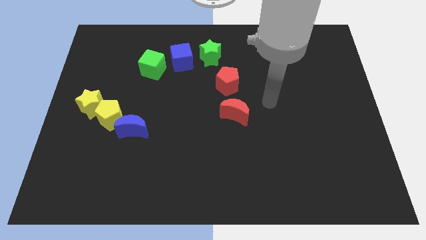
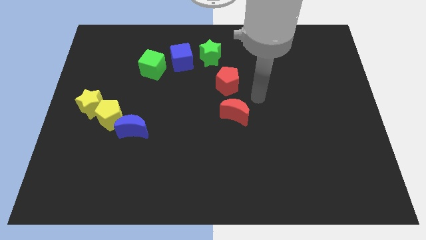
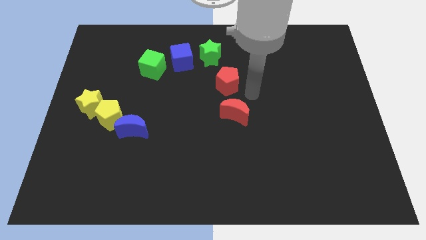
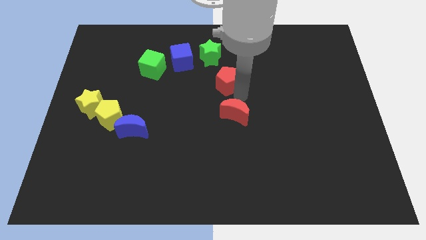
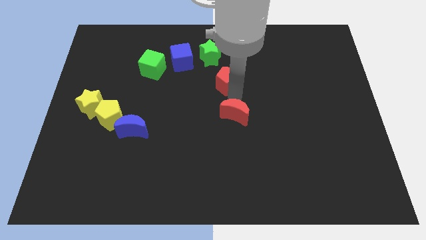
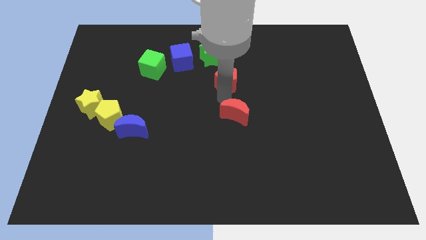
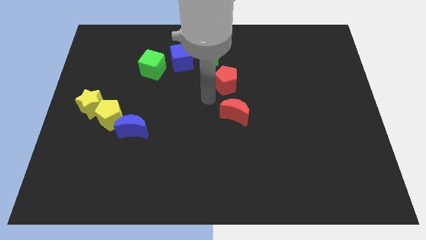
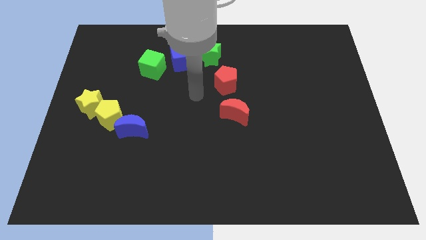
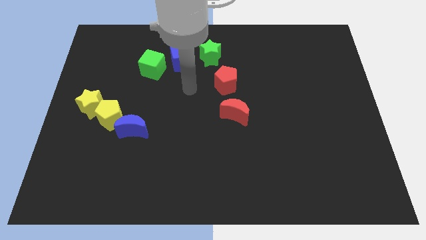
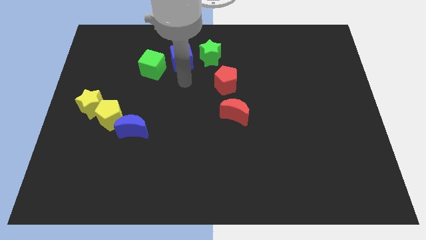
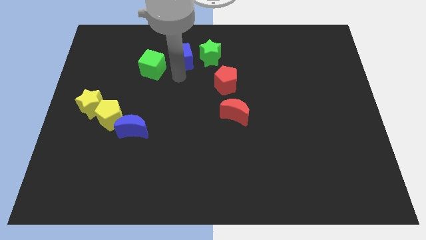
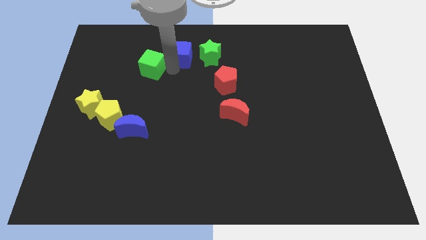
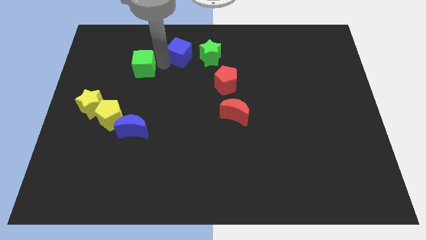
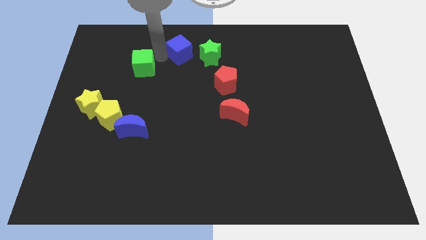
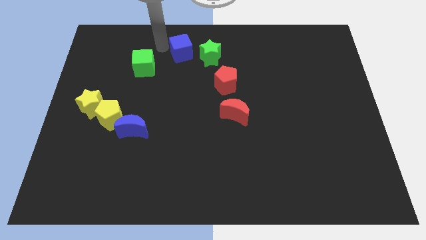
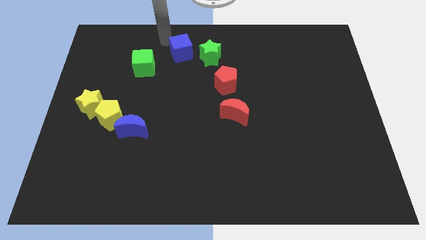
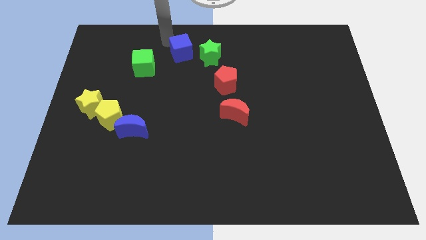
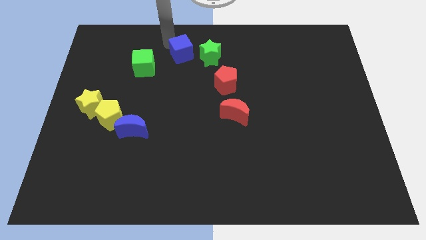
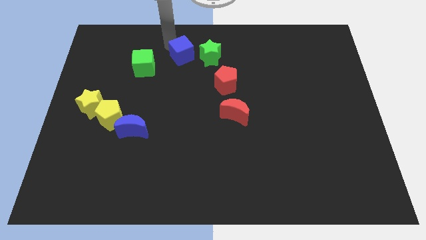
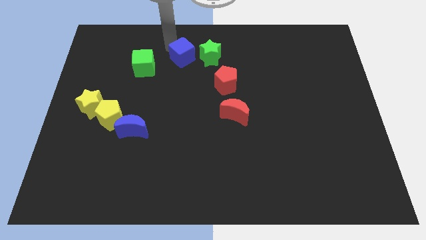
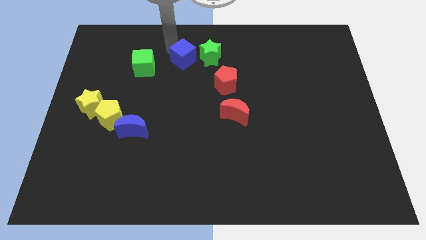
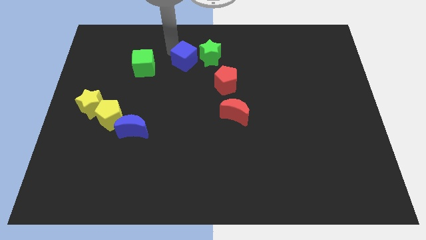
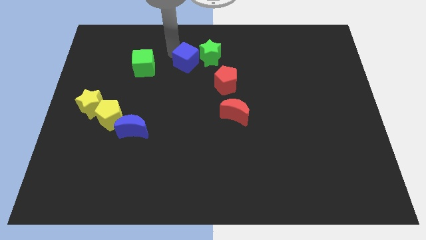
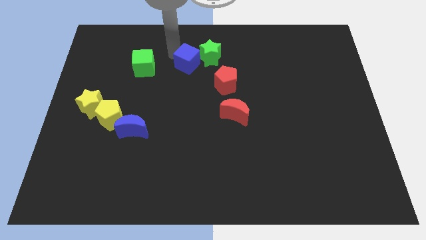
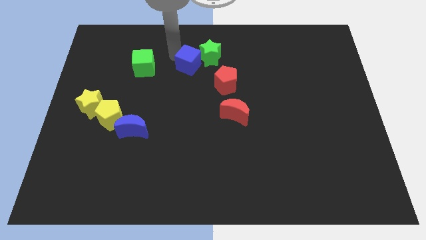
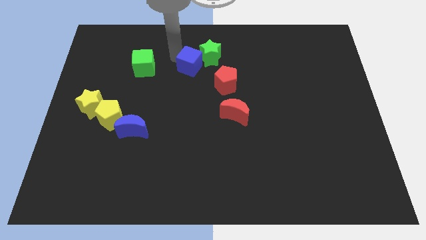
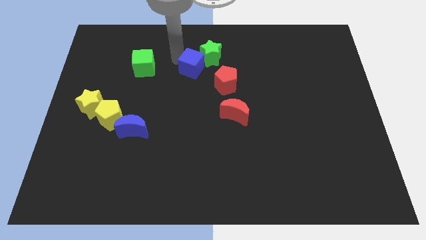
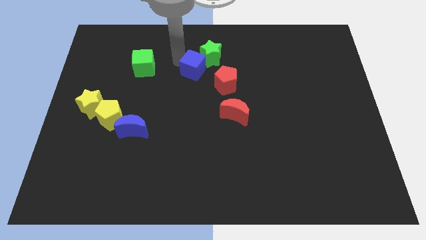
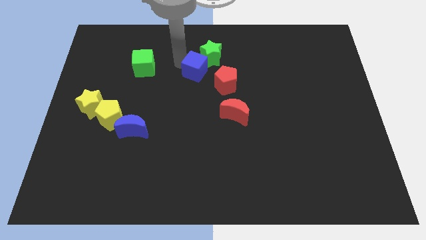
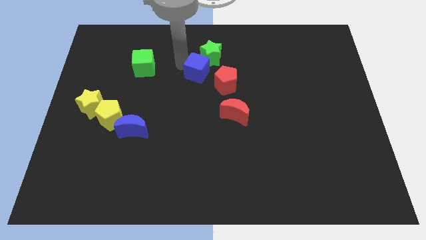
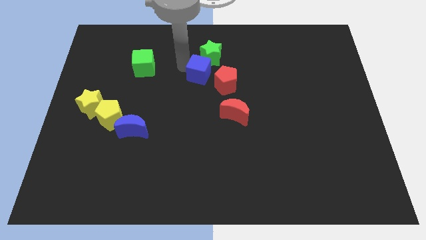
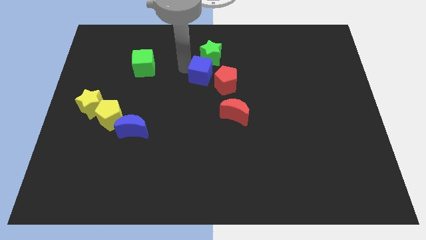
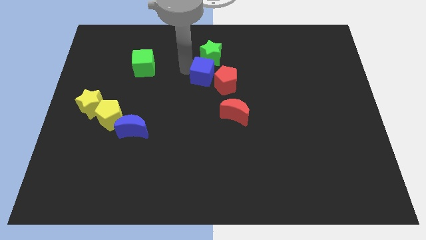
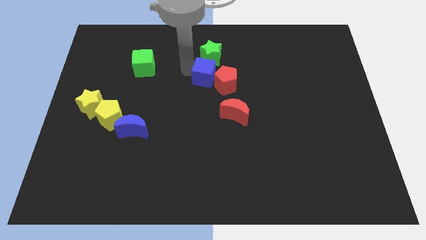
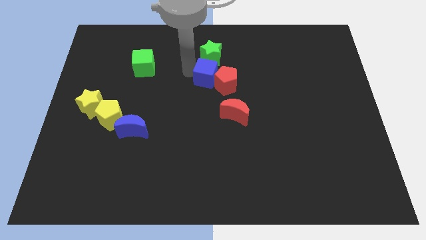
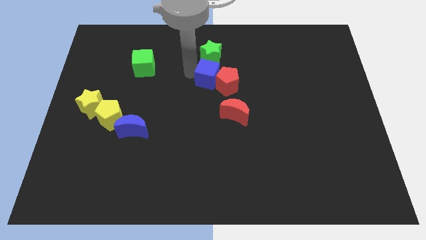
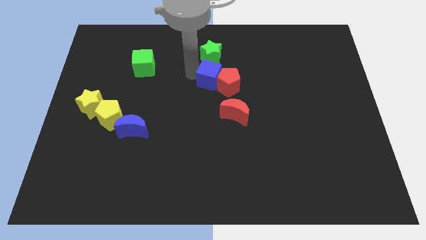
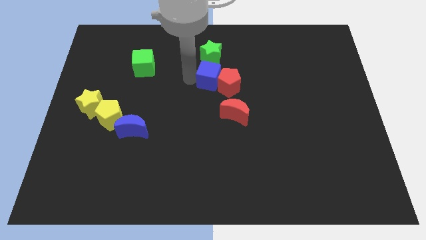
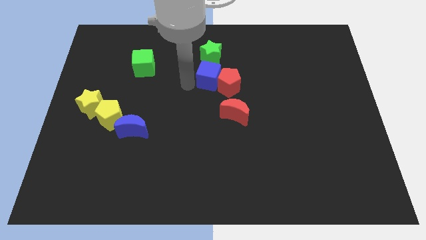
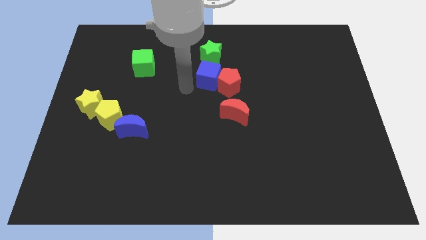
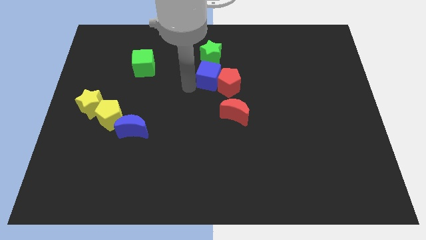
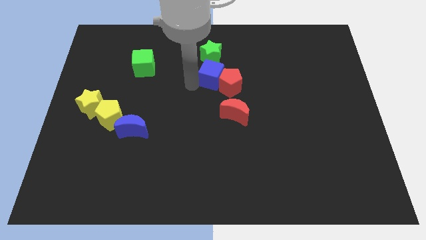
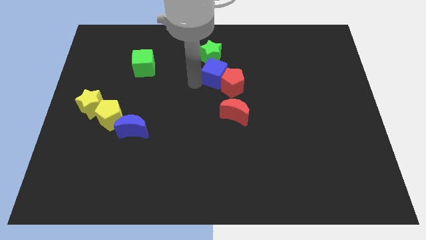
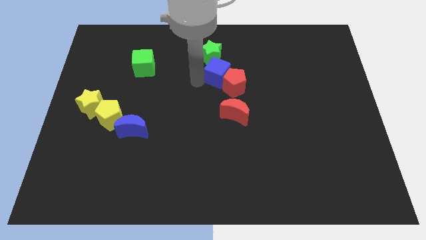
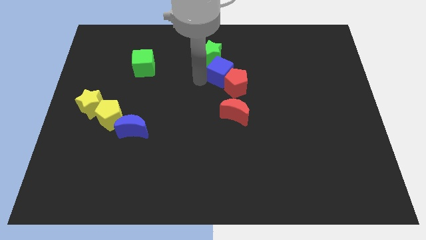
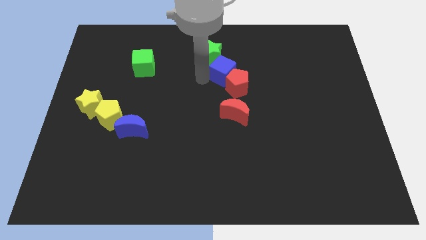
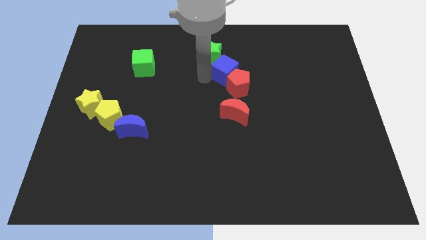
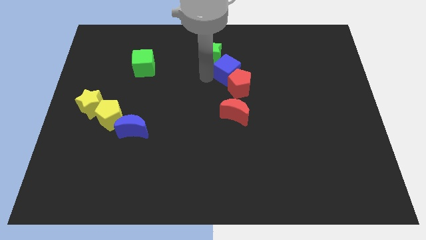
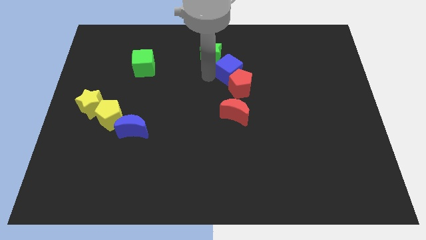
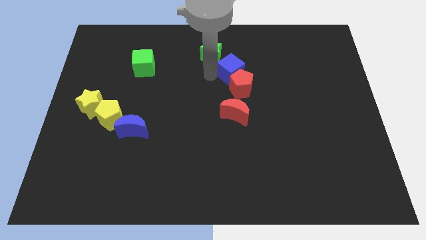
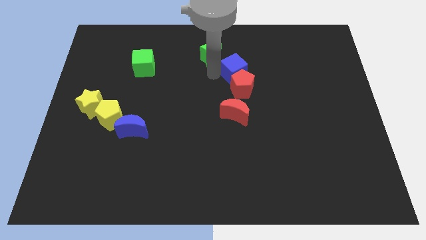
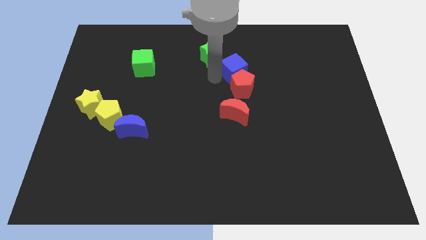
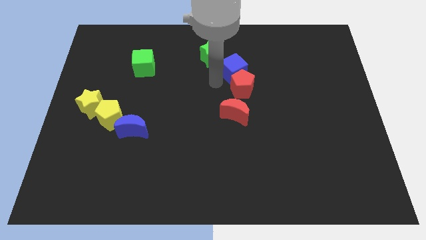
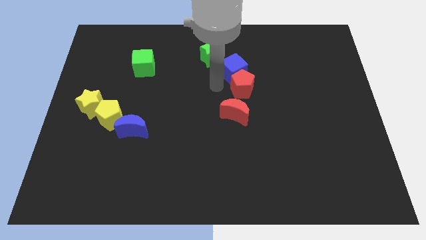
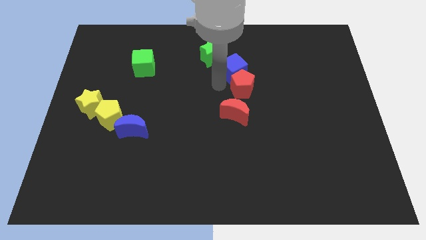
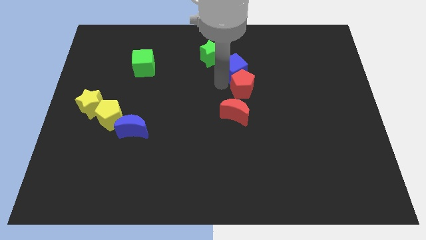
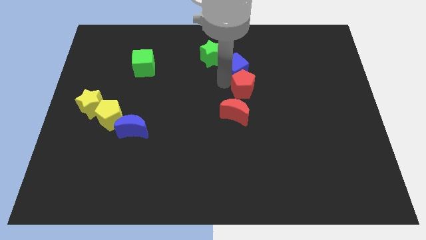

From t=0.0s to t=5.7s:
slide the blue cube just right of the green star

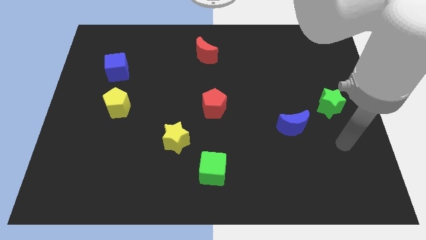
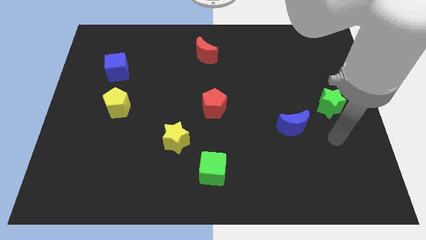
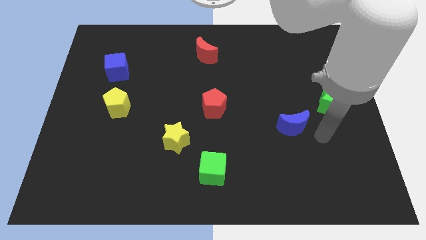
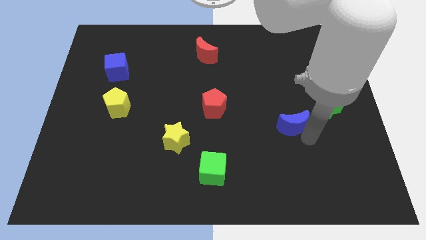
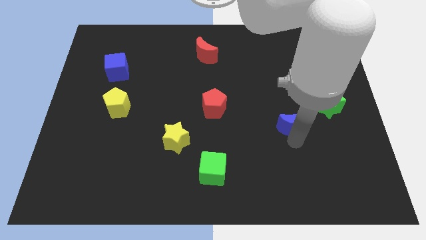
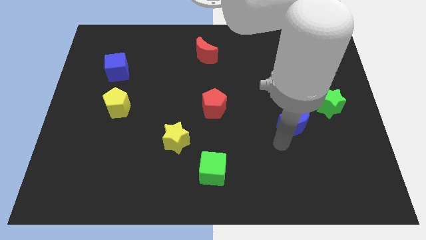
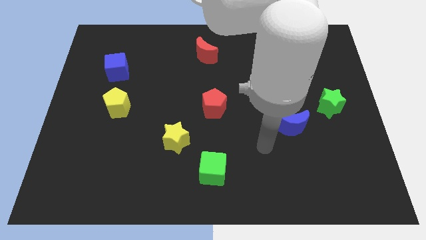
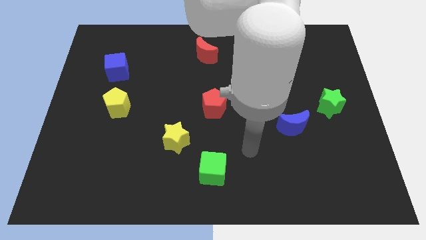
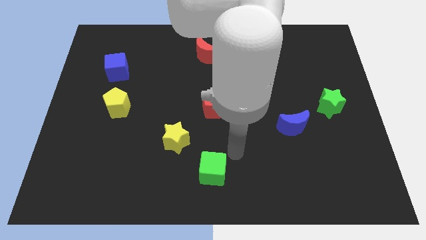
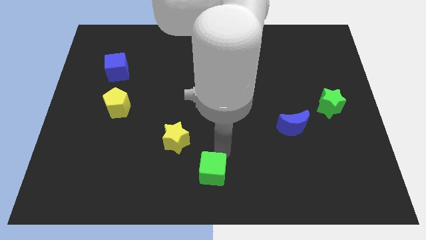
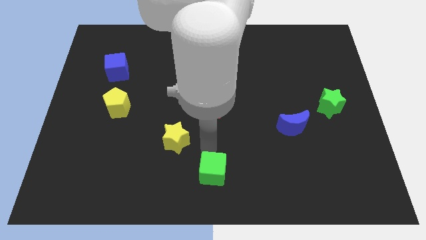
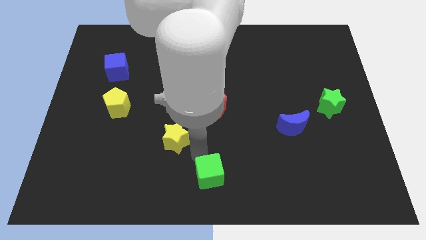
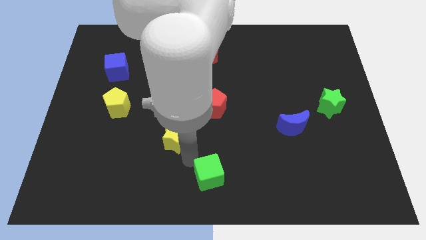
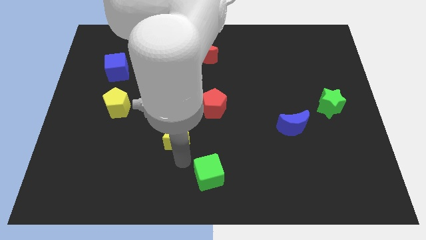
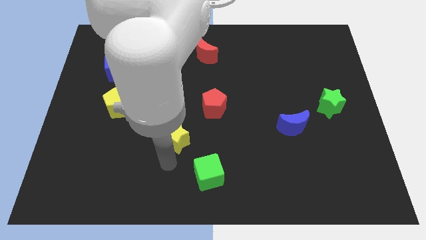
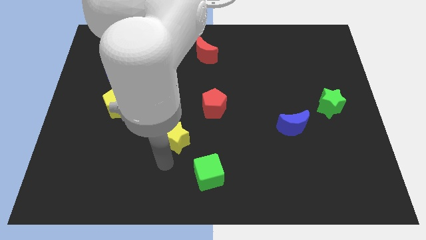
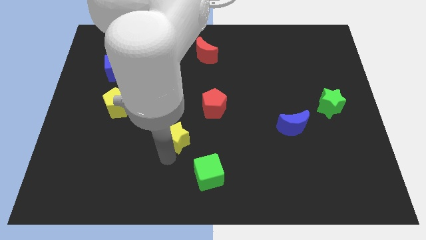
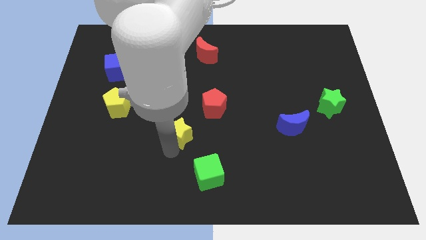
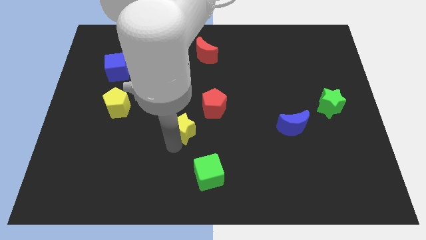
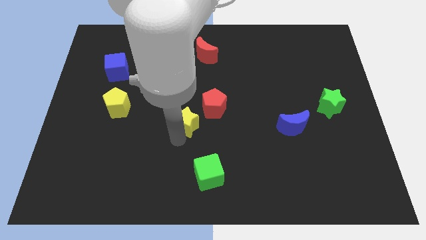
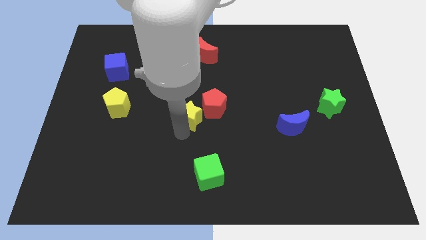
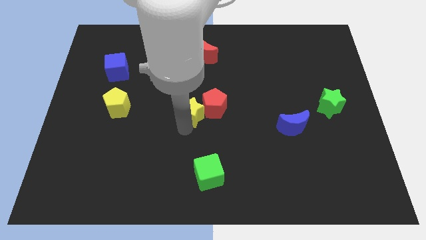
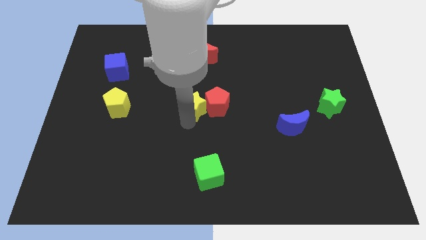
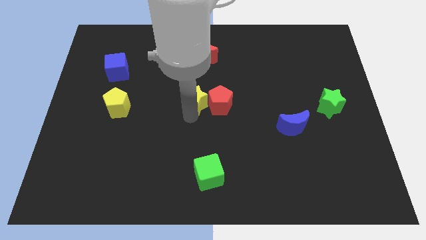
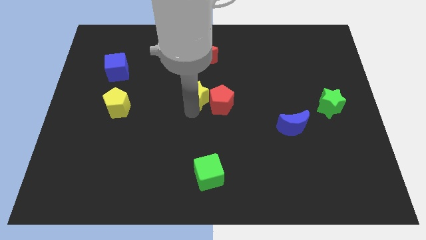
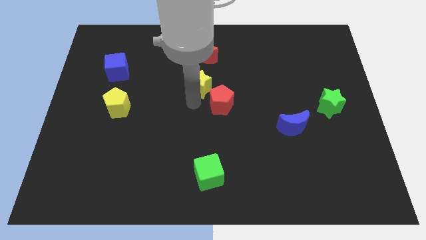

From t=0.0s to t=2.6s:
slide the yellow star above the red pentagon
